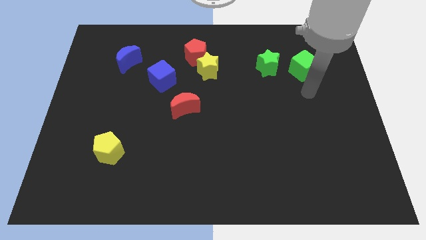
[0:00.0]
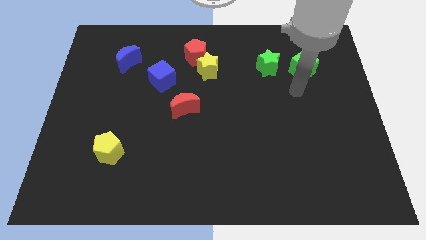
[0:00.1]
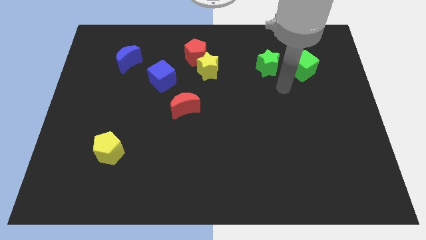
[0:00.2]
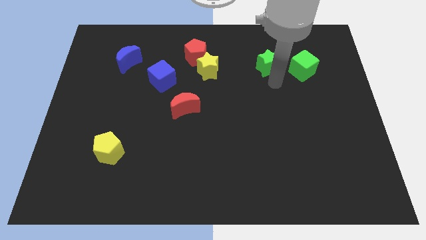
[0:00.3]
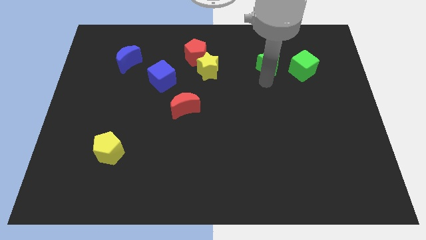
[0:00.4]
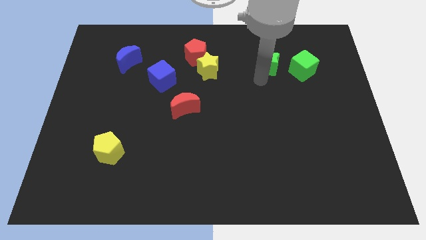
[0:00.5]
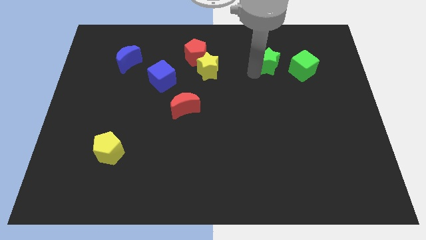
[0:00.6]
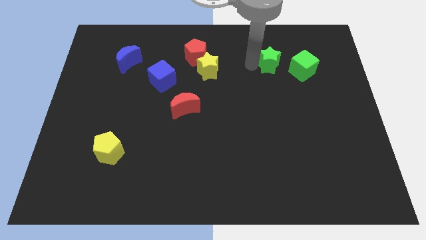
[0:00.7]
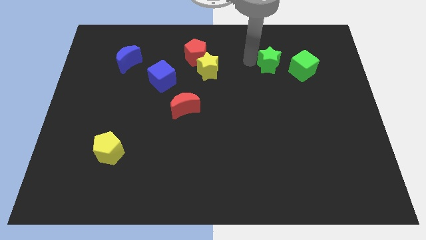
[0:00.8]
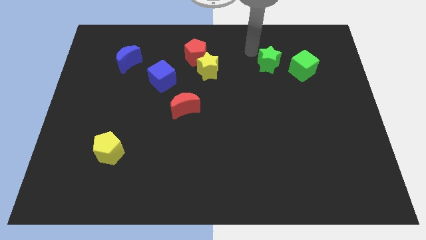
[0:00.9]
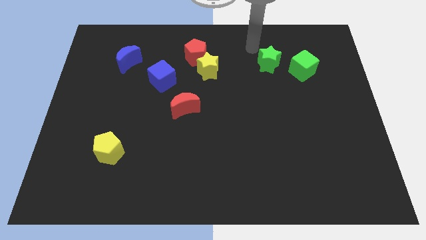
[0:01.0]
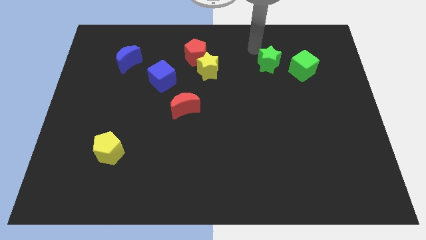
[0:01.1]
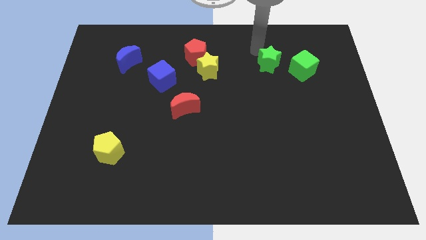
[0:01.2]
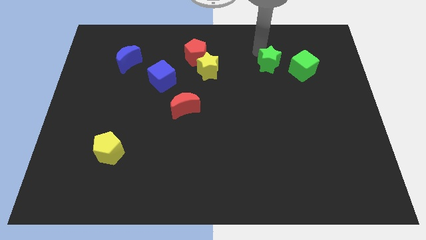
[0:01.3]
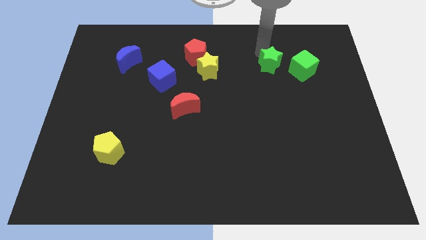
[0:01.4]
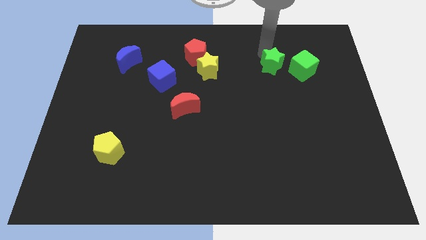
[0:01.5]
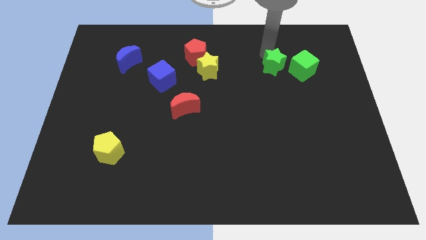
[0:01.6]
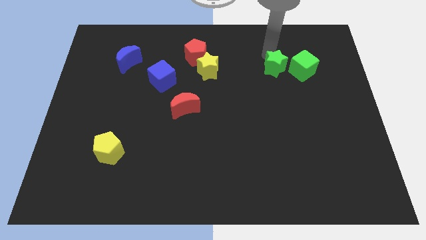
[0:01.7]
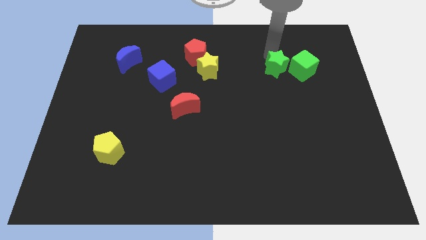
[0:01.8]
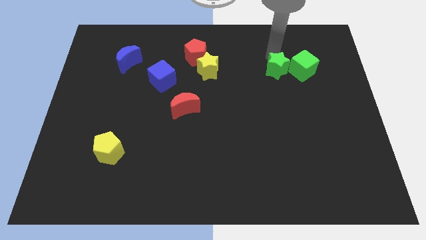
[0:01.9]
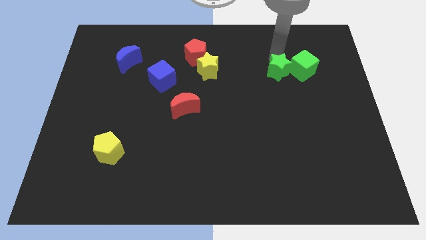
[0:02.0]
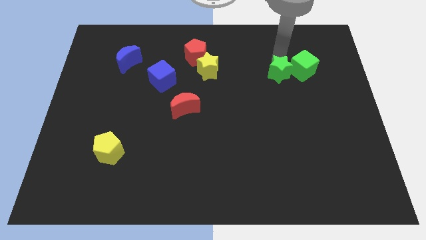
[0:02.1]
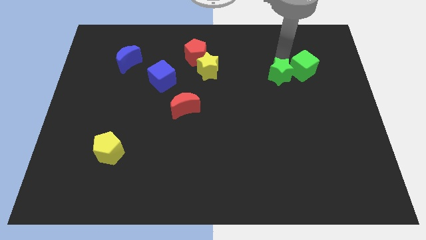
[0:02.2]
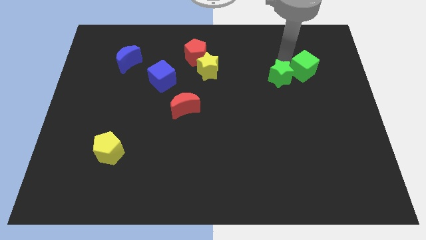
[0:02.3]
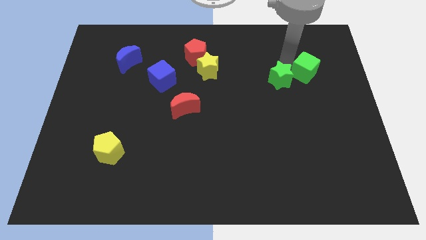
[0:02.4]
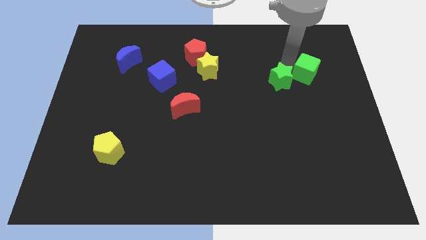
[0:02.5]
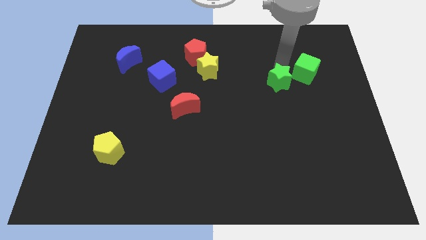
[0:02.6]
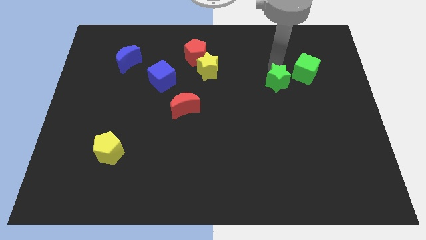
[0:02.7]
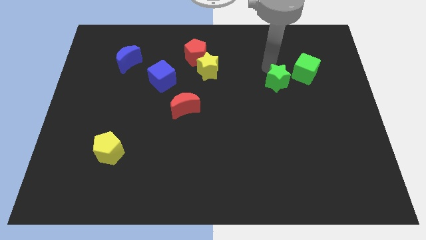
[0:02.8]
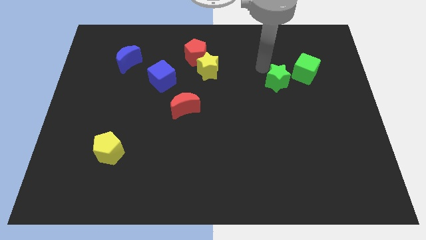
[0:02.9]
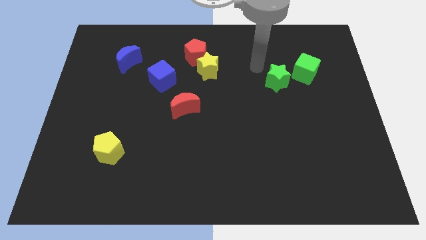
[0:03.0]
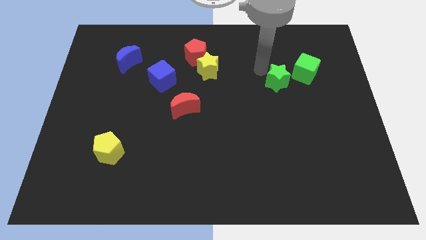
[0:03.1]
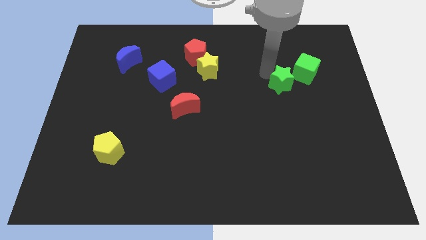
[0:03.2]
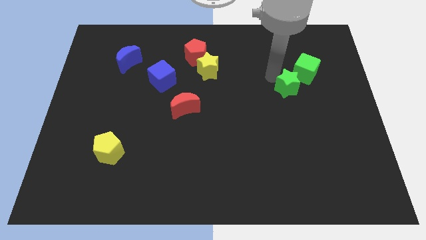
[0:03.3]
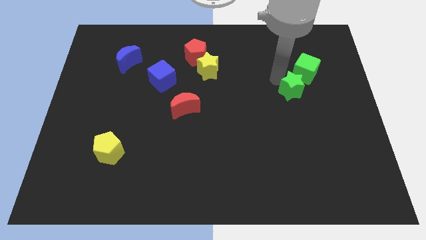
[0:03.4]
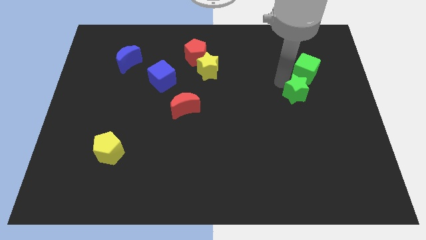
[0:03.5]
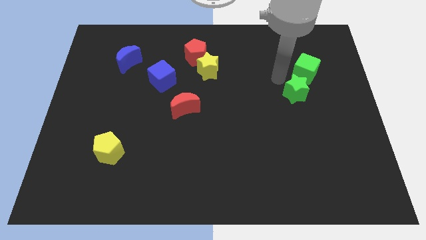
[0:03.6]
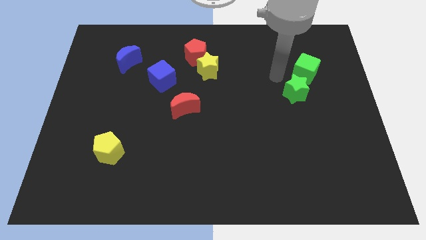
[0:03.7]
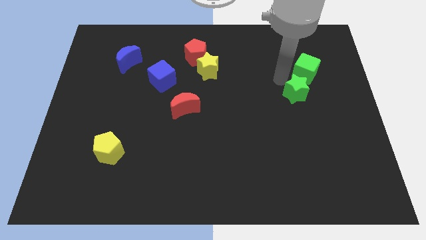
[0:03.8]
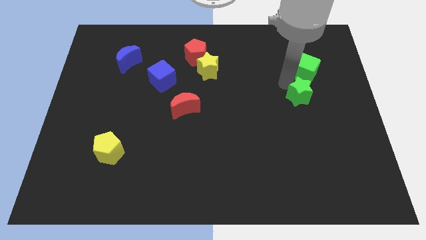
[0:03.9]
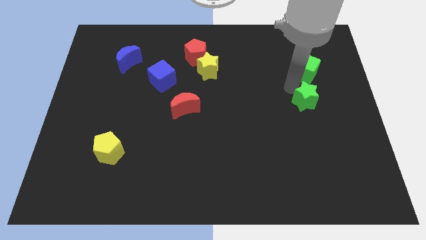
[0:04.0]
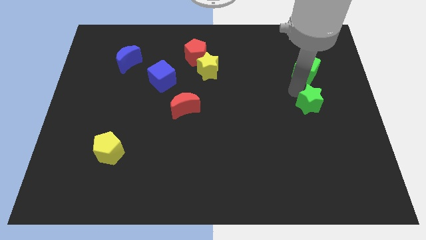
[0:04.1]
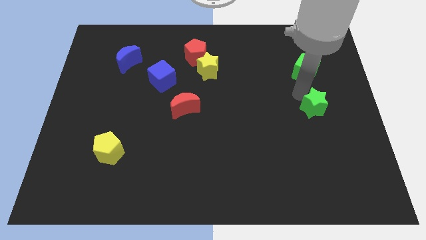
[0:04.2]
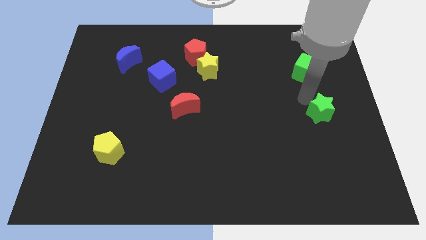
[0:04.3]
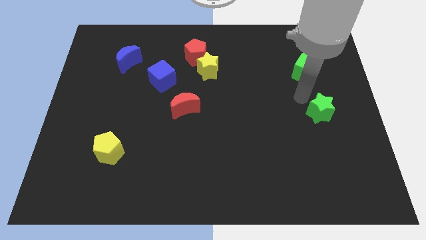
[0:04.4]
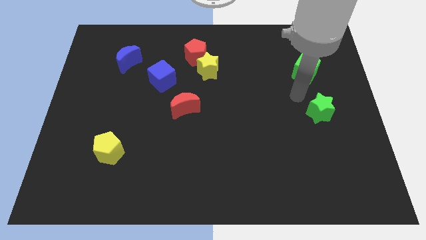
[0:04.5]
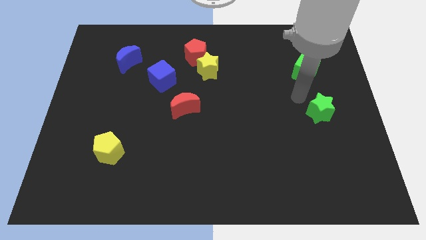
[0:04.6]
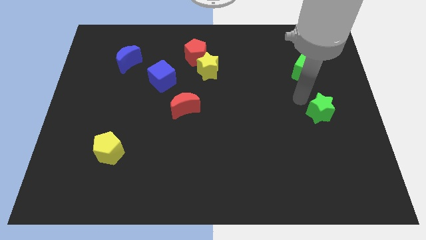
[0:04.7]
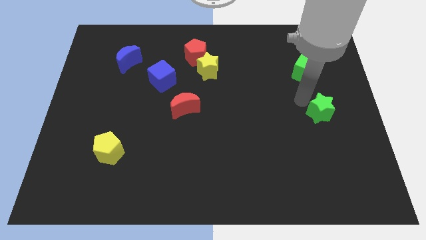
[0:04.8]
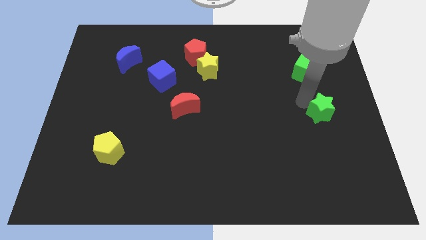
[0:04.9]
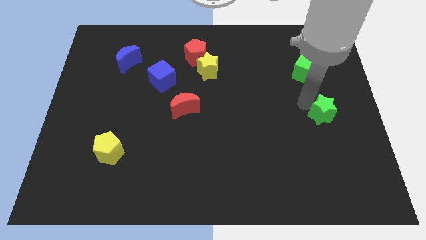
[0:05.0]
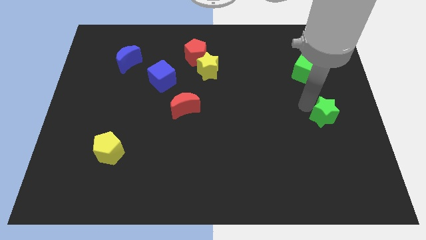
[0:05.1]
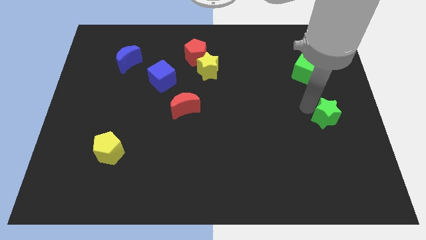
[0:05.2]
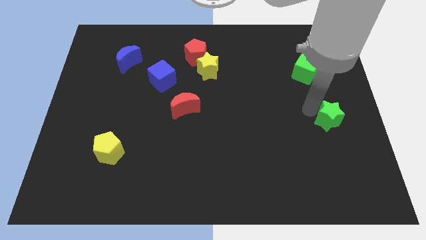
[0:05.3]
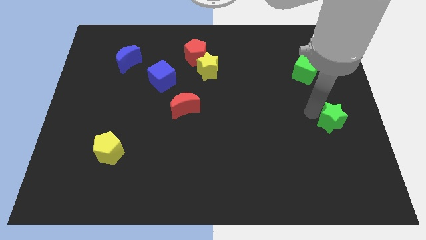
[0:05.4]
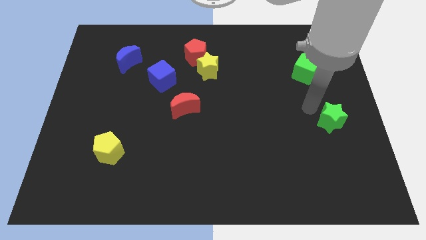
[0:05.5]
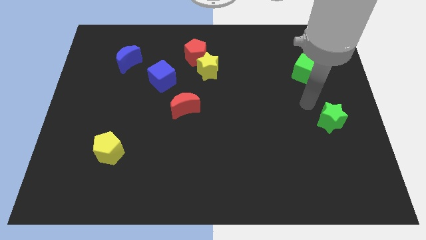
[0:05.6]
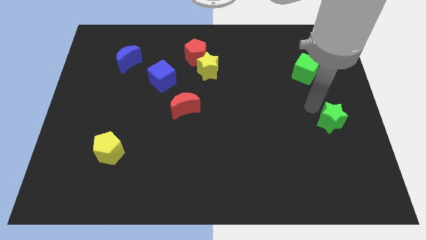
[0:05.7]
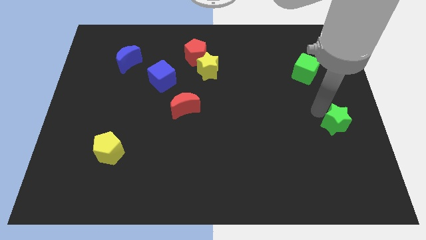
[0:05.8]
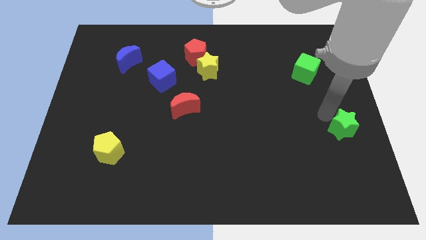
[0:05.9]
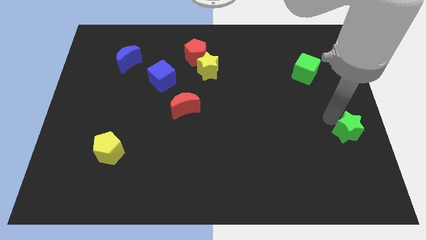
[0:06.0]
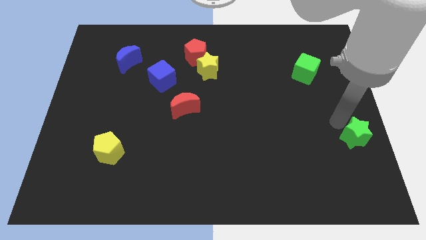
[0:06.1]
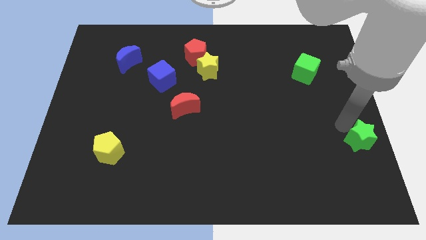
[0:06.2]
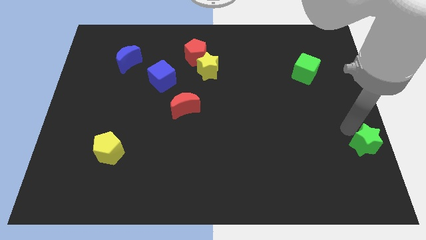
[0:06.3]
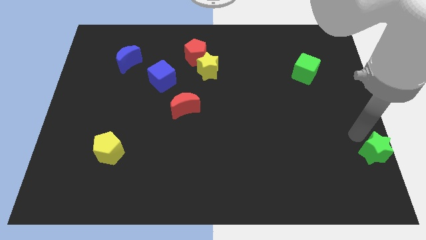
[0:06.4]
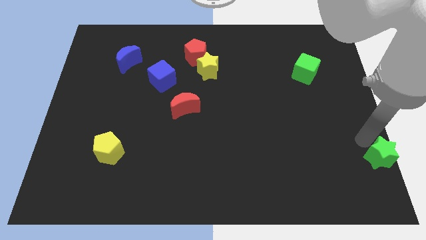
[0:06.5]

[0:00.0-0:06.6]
put the green star to the bottom right corner
